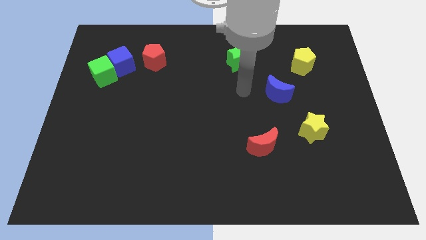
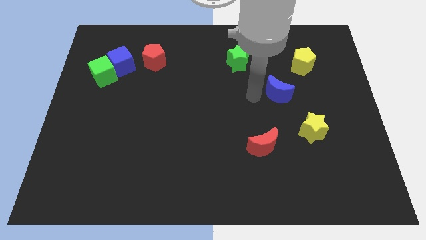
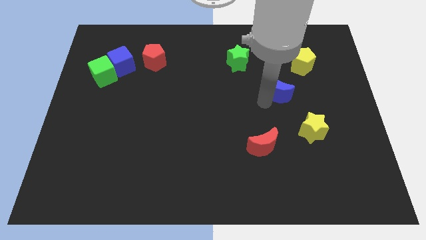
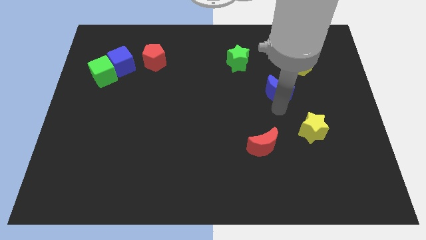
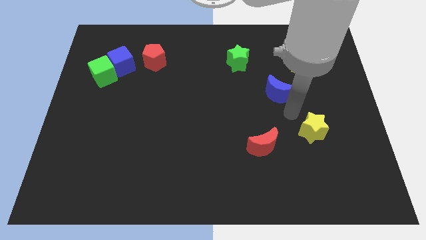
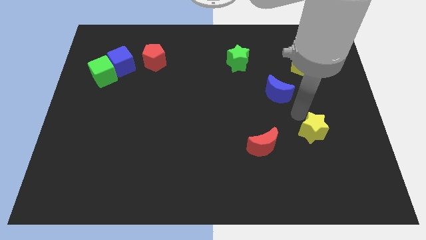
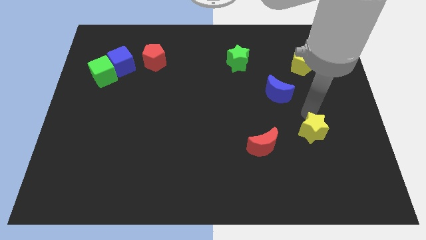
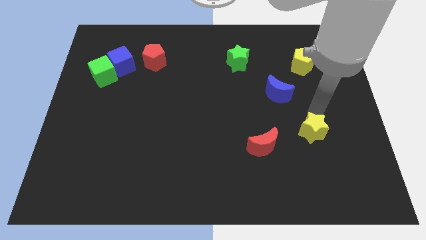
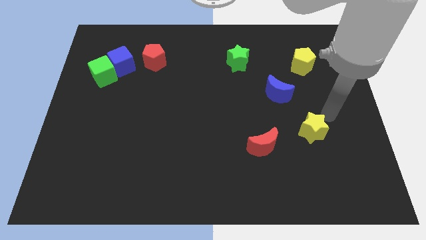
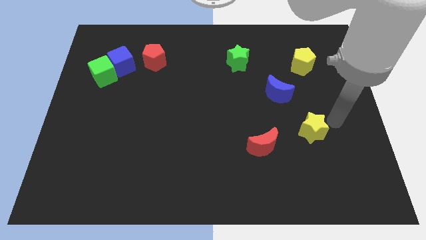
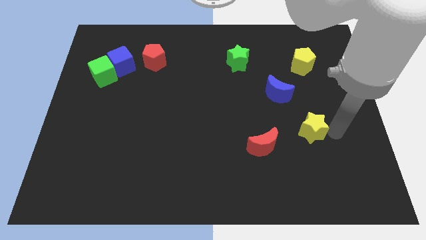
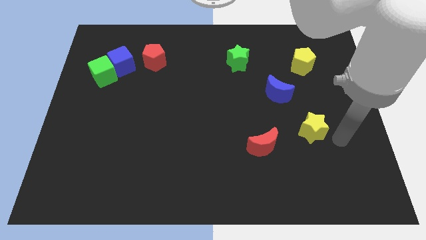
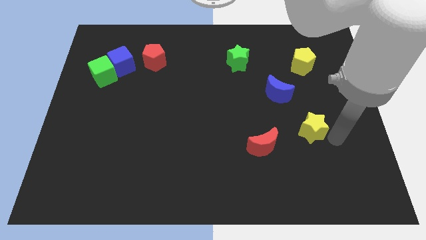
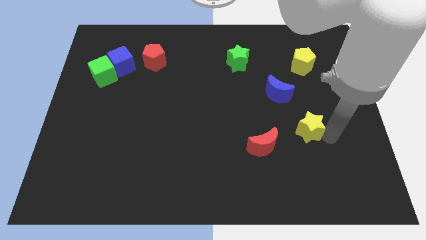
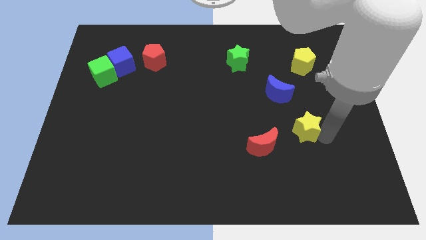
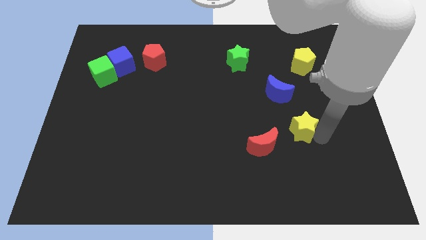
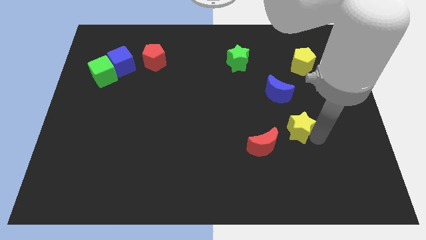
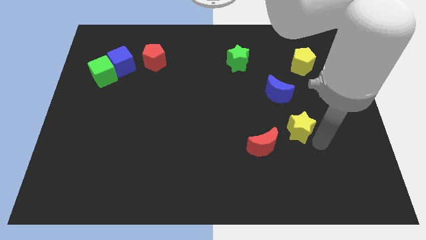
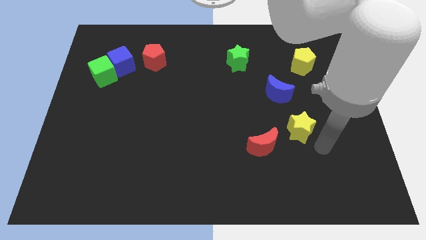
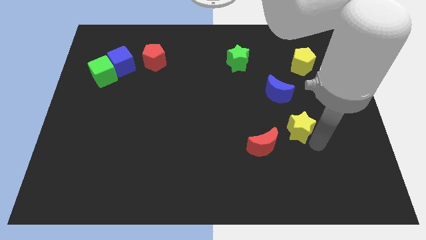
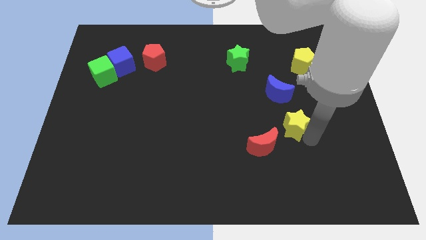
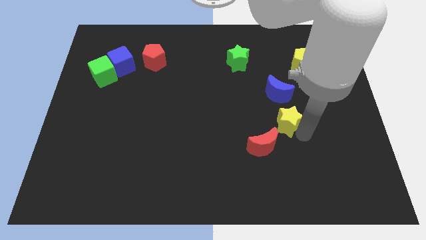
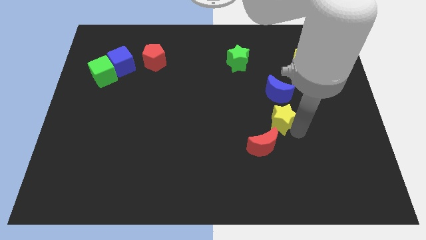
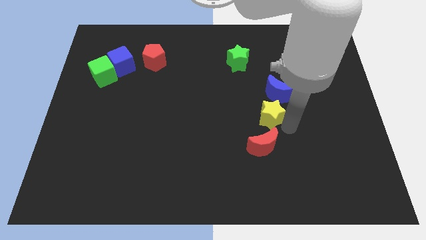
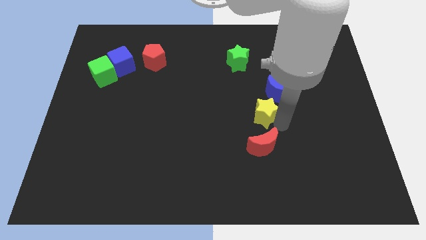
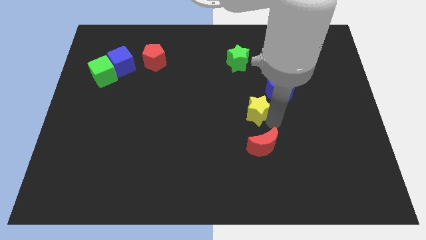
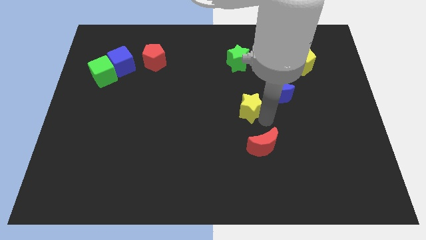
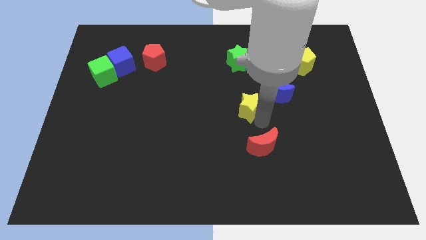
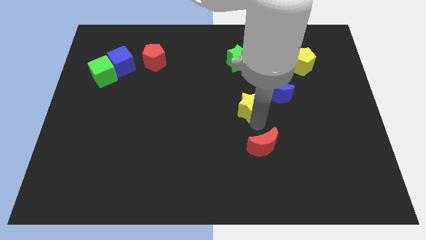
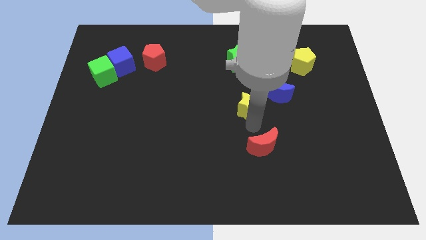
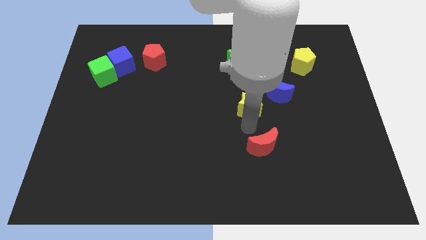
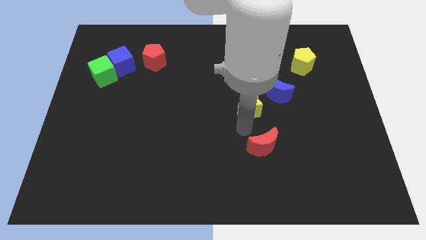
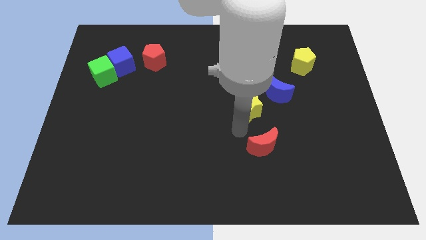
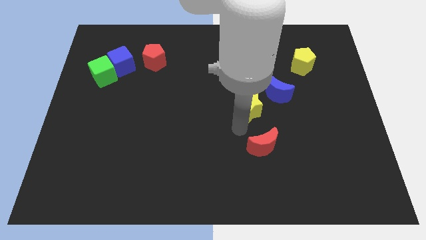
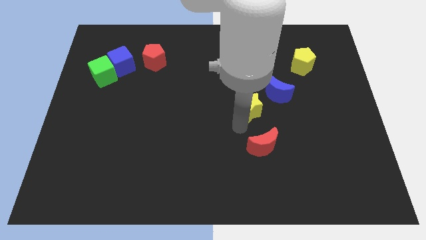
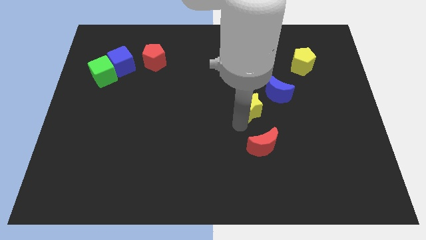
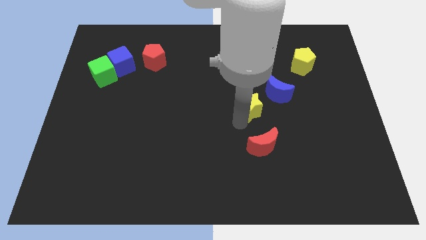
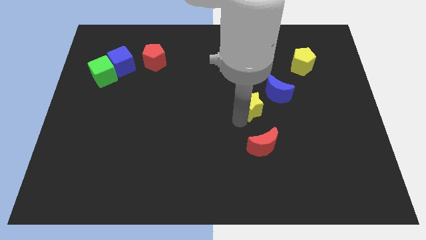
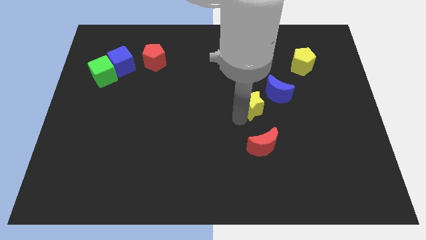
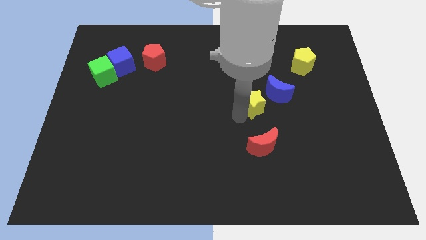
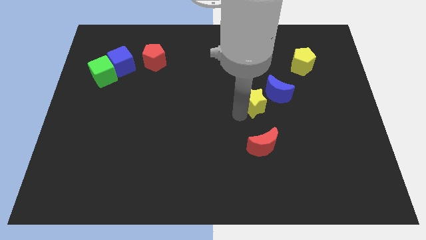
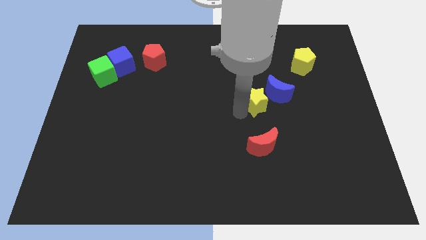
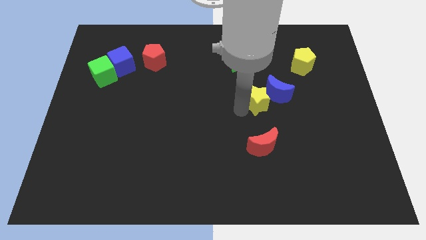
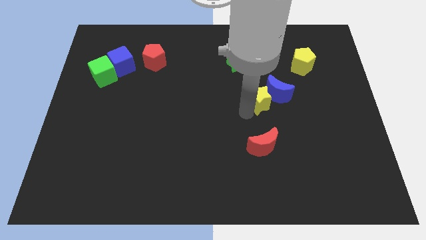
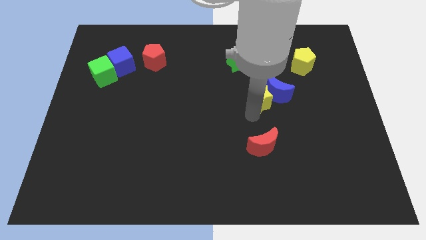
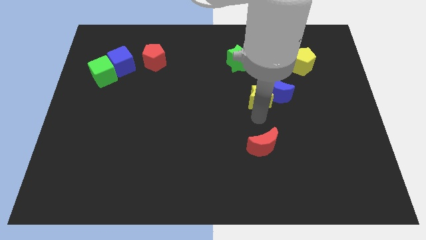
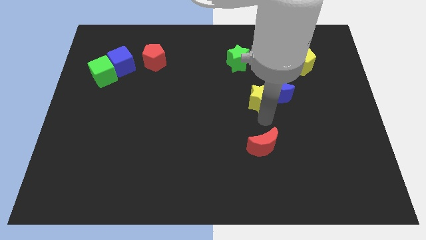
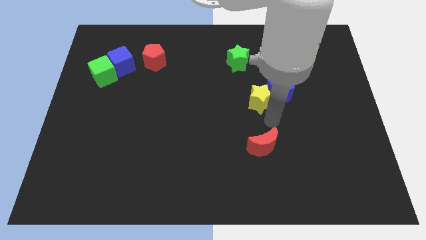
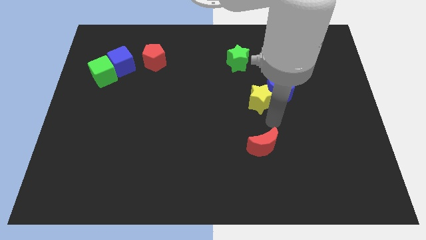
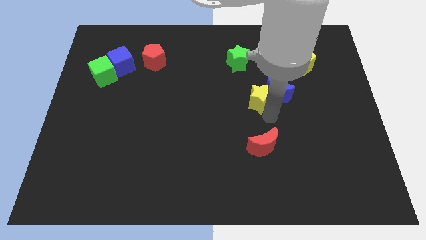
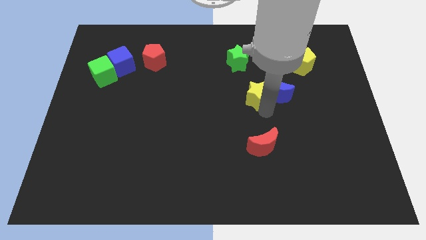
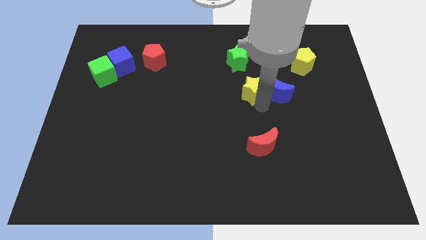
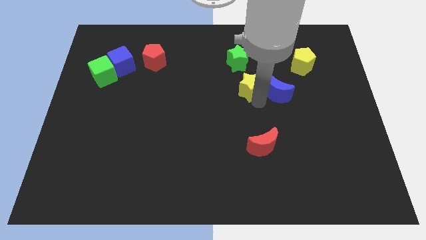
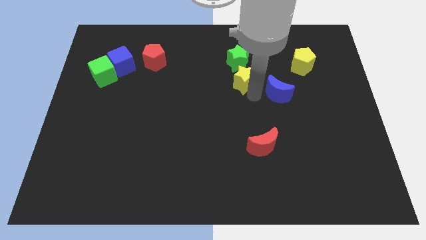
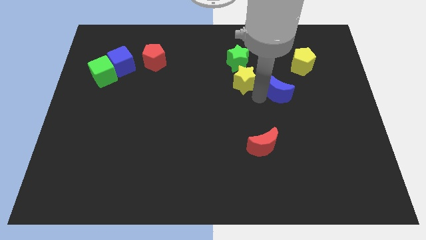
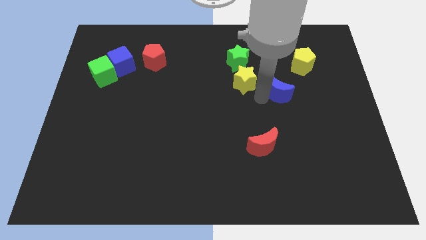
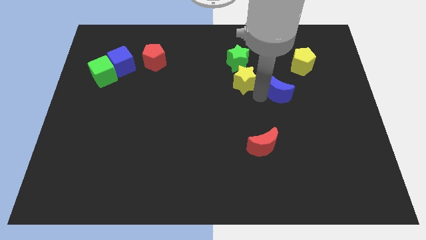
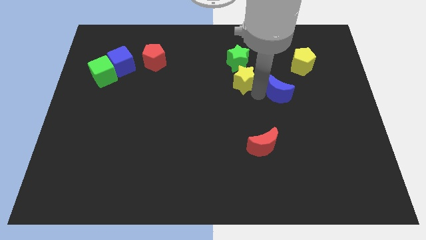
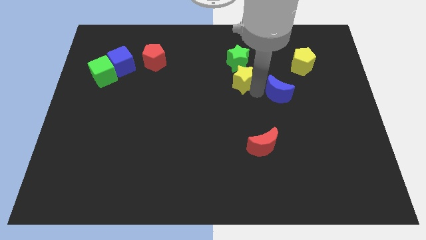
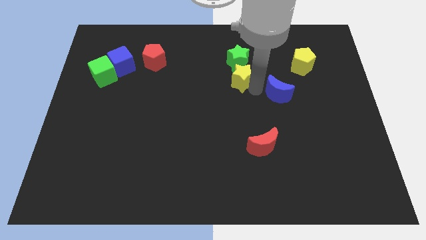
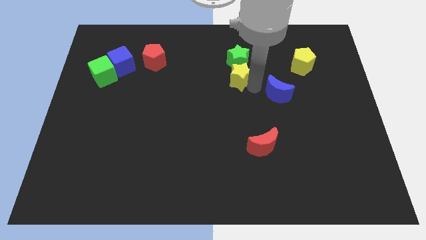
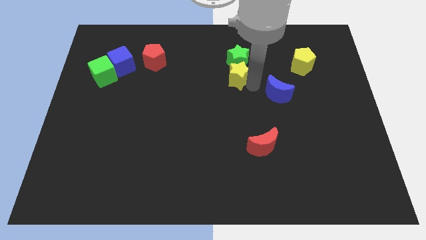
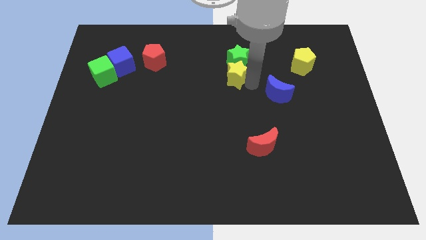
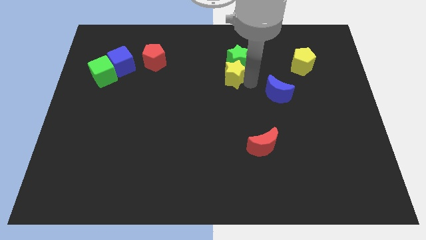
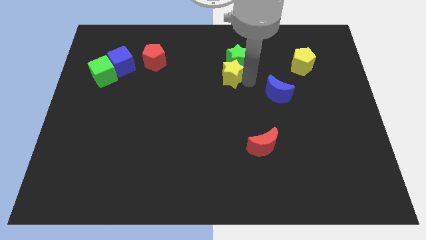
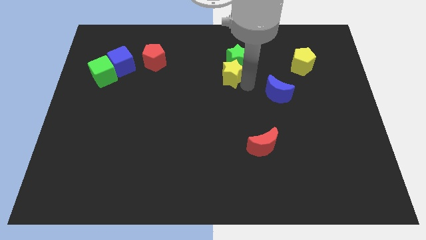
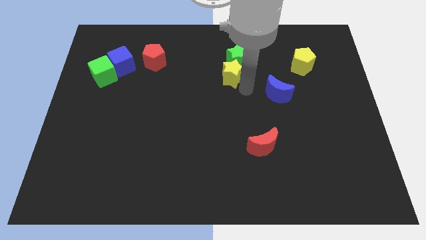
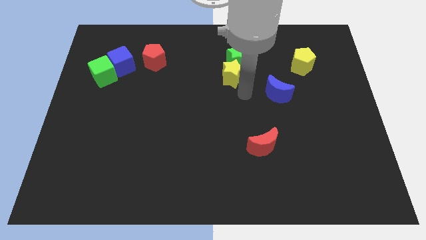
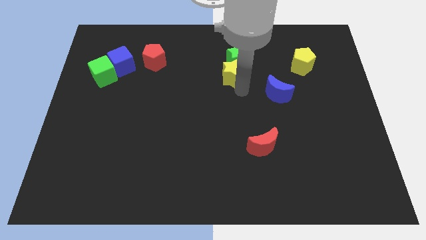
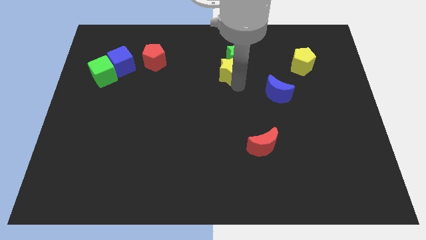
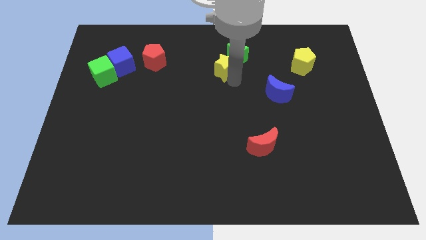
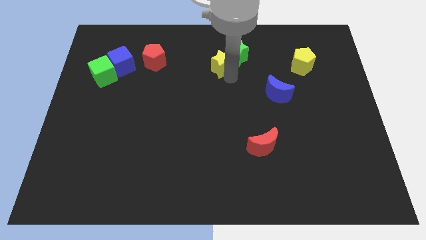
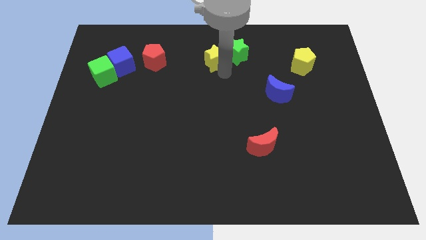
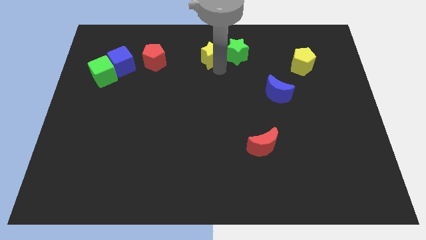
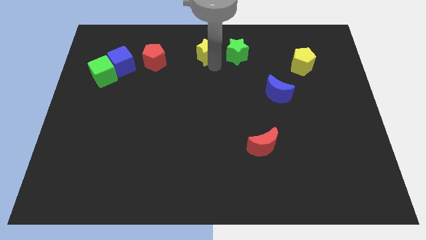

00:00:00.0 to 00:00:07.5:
slide the yellow star to the towards your base
